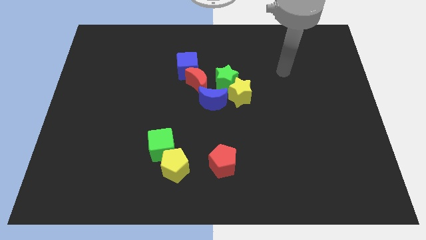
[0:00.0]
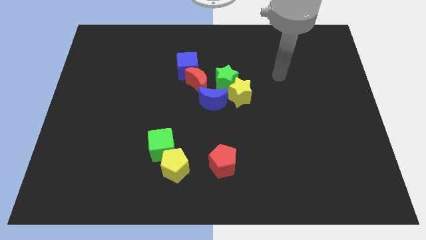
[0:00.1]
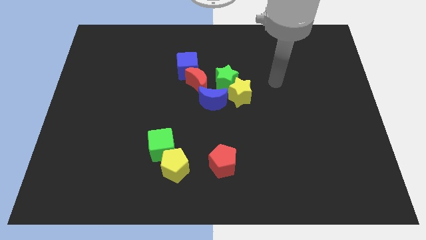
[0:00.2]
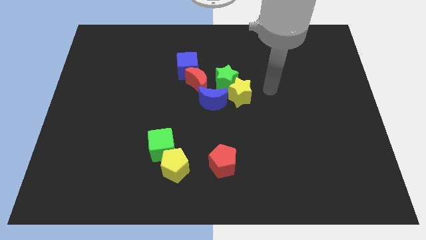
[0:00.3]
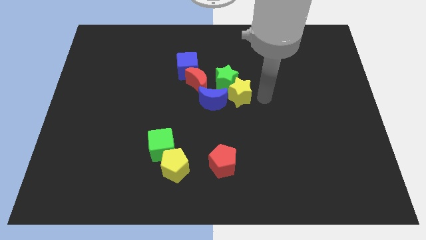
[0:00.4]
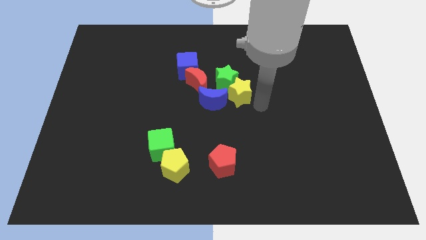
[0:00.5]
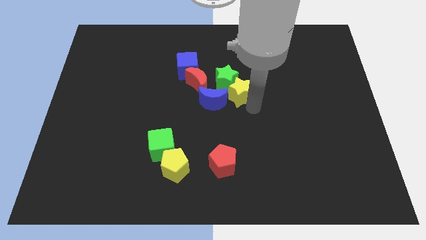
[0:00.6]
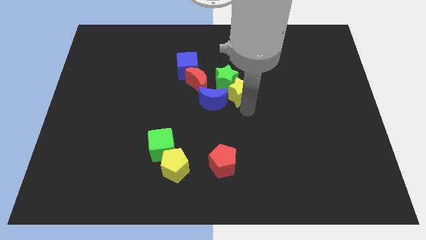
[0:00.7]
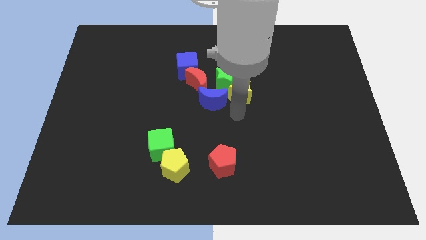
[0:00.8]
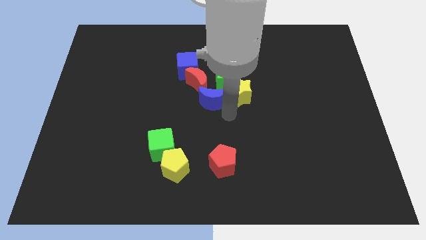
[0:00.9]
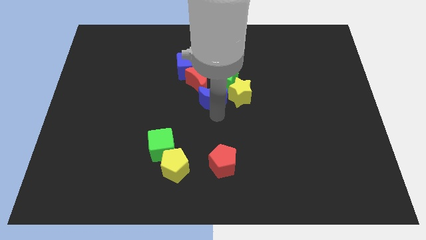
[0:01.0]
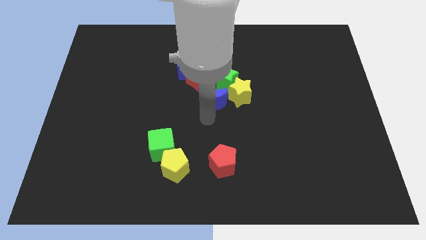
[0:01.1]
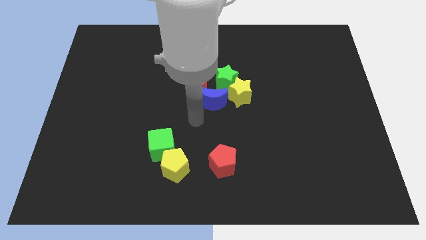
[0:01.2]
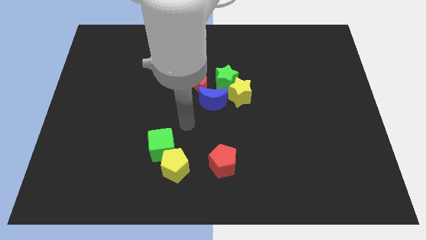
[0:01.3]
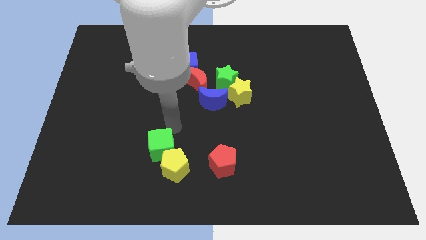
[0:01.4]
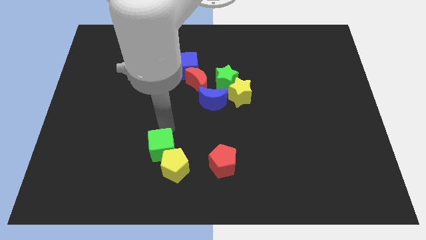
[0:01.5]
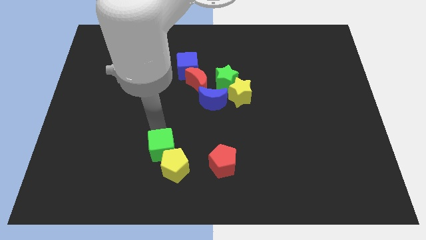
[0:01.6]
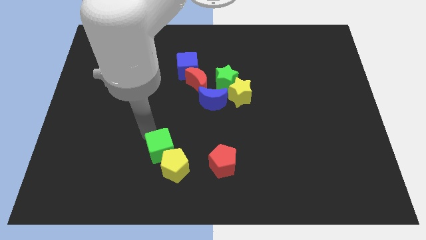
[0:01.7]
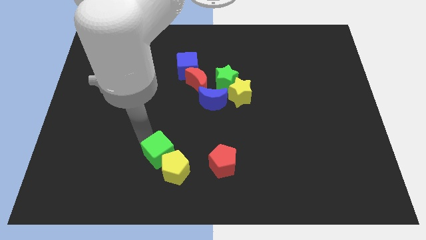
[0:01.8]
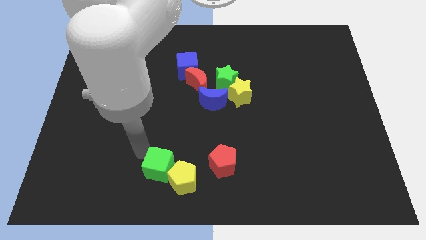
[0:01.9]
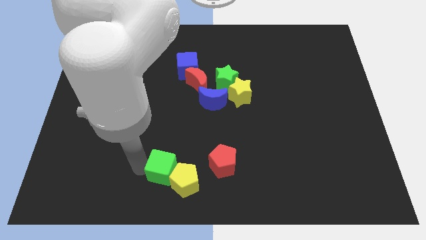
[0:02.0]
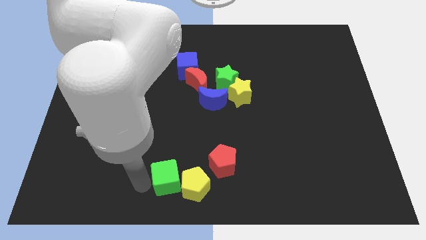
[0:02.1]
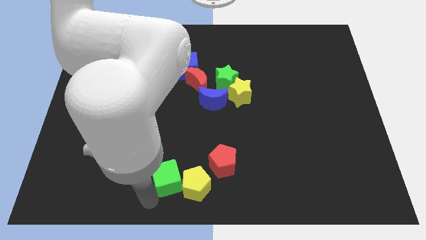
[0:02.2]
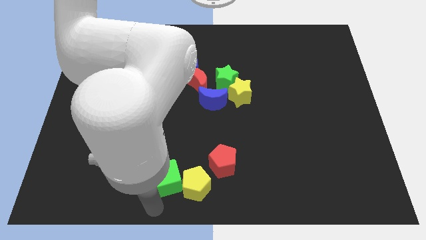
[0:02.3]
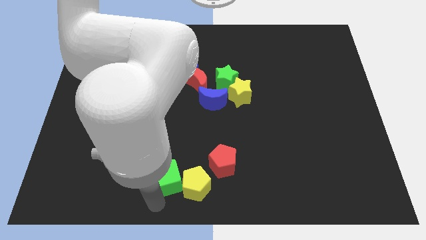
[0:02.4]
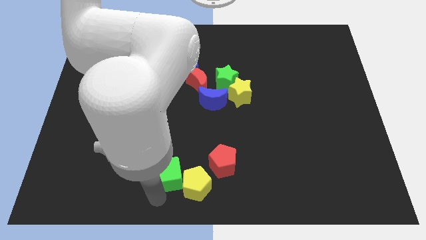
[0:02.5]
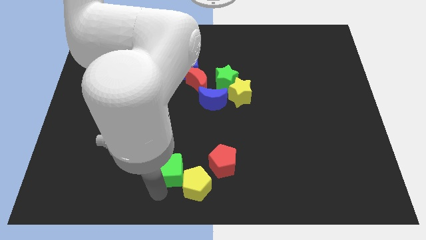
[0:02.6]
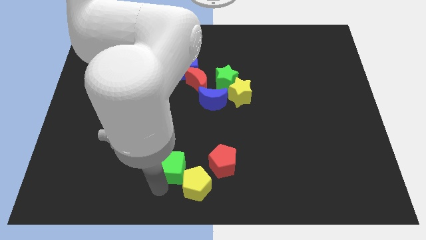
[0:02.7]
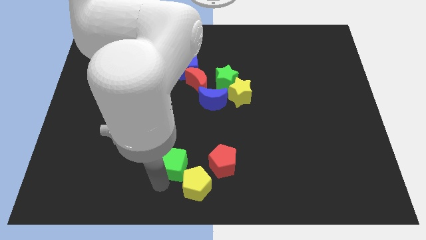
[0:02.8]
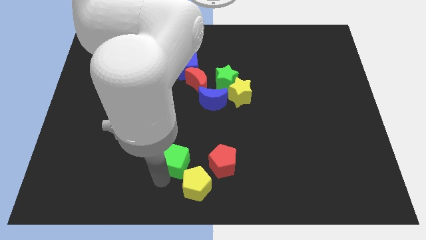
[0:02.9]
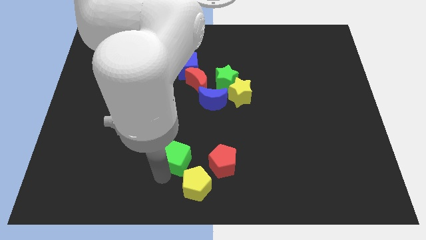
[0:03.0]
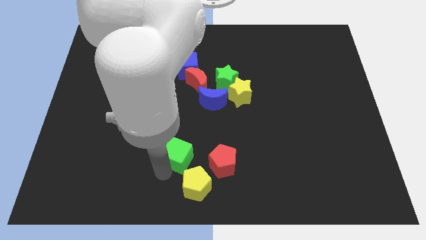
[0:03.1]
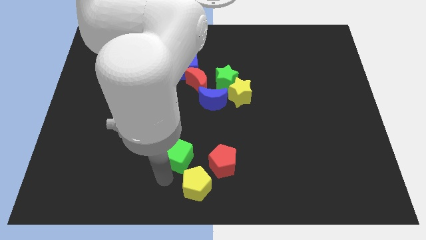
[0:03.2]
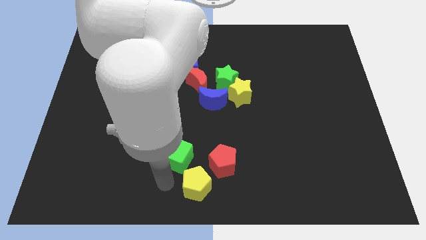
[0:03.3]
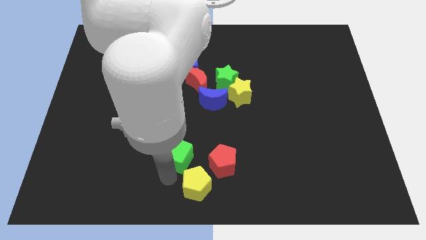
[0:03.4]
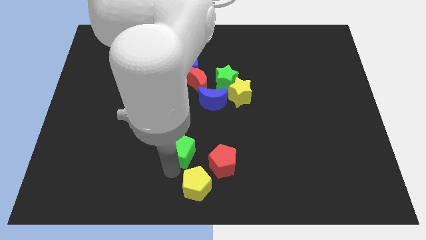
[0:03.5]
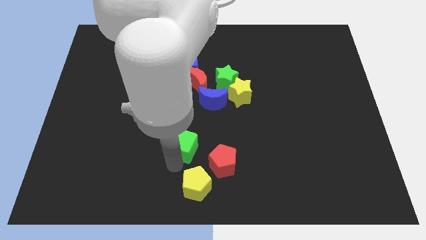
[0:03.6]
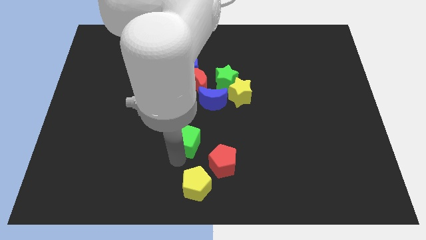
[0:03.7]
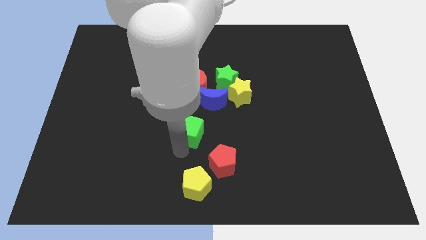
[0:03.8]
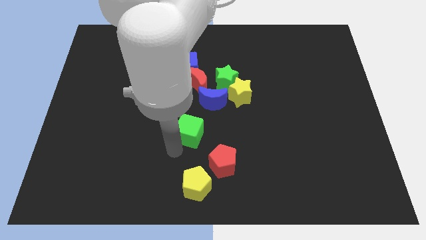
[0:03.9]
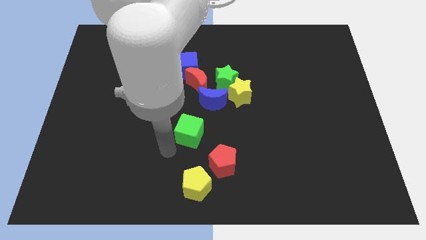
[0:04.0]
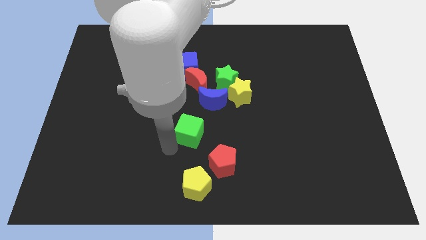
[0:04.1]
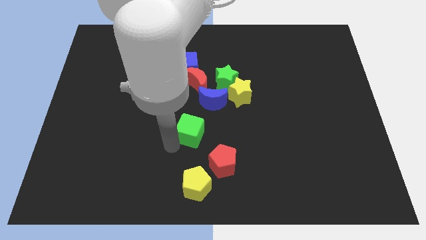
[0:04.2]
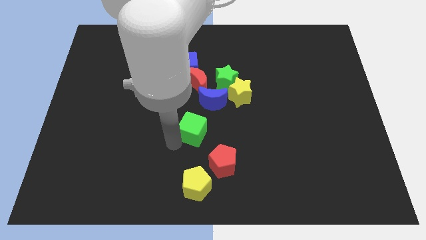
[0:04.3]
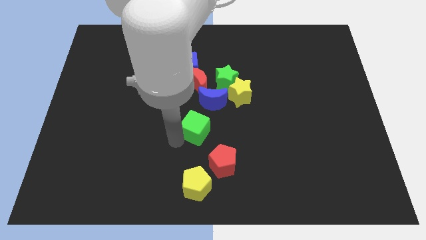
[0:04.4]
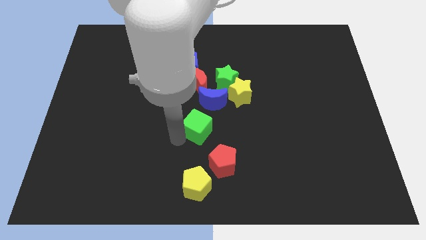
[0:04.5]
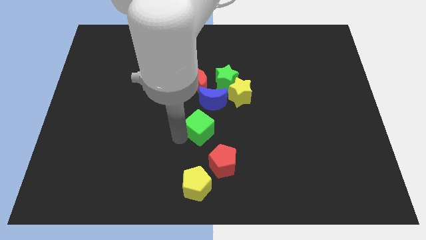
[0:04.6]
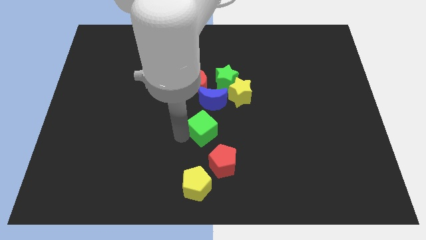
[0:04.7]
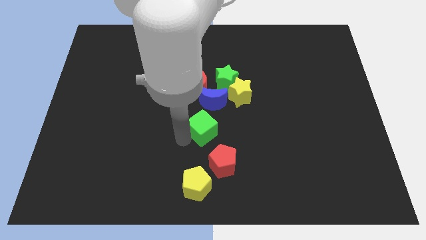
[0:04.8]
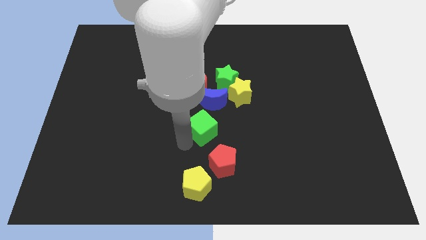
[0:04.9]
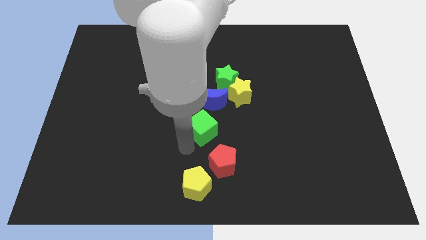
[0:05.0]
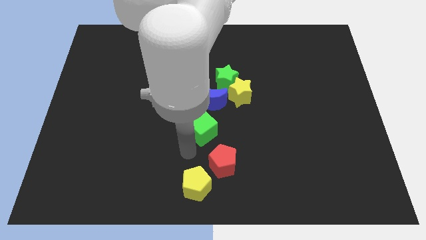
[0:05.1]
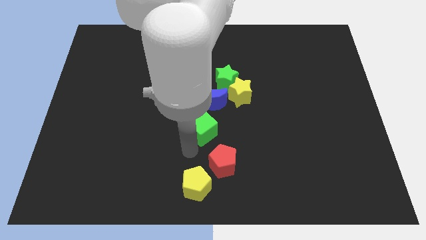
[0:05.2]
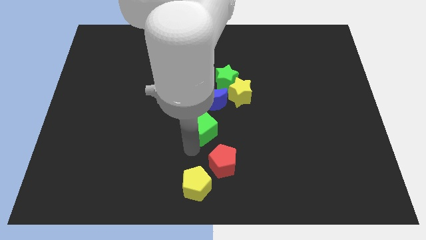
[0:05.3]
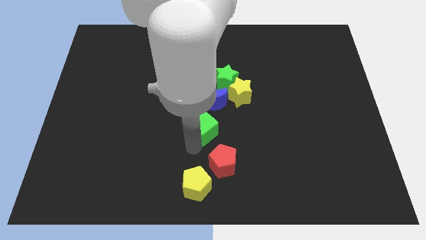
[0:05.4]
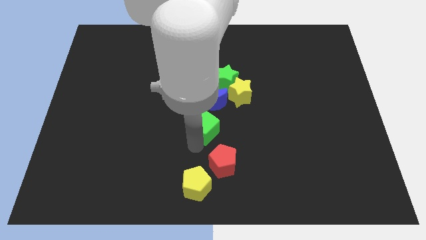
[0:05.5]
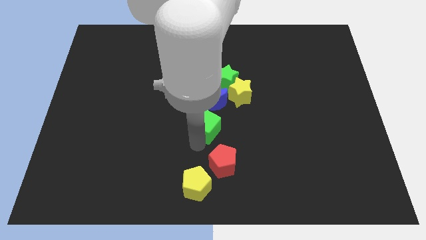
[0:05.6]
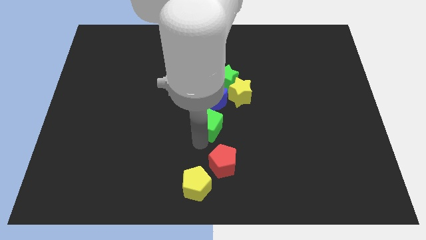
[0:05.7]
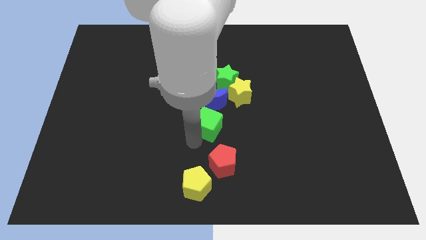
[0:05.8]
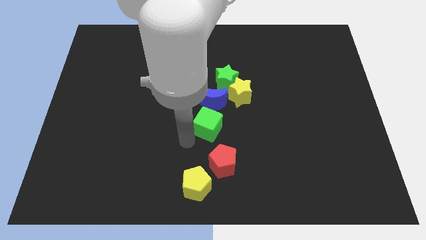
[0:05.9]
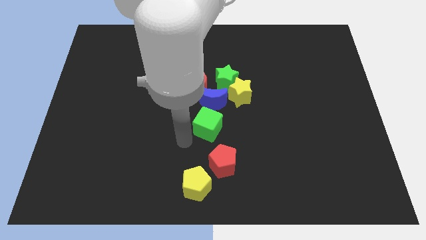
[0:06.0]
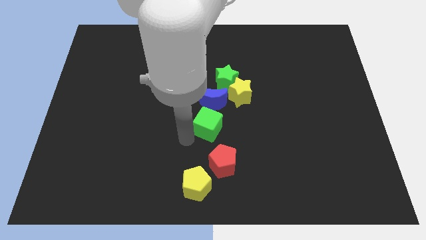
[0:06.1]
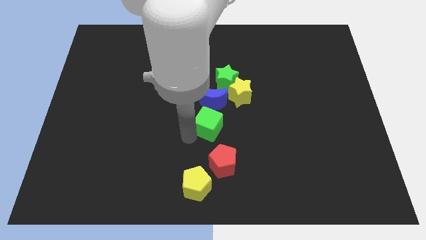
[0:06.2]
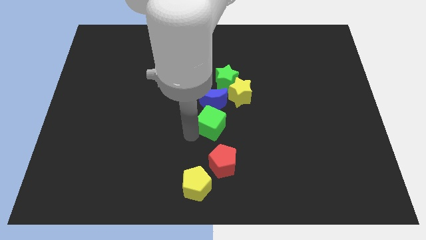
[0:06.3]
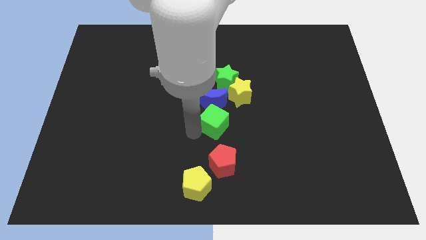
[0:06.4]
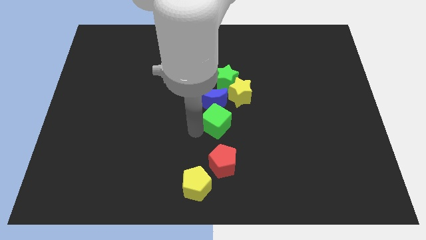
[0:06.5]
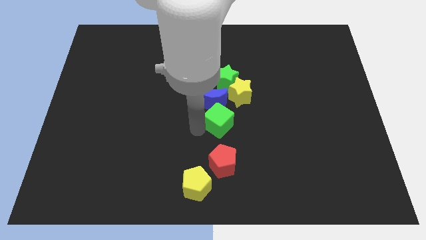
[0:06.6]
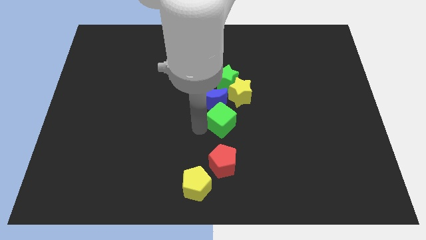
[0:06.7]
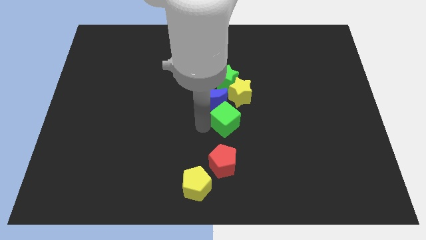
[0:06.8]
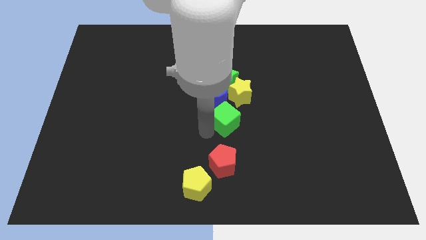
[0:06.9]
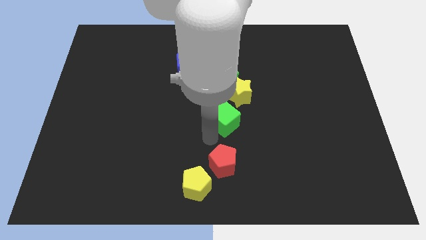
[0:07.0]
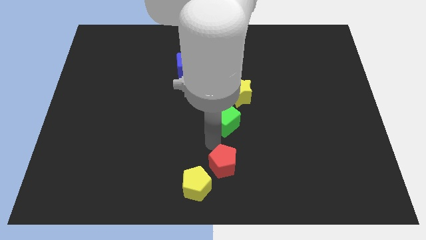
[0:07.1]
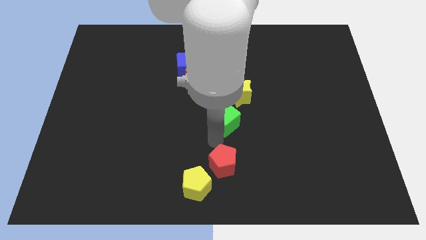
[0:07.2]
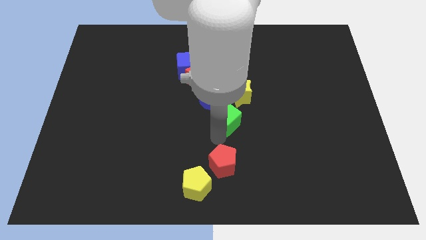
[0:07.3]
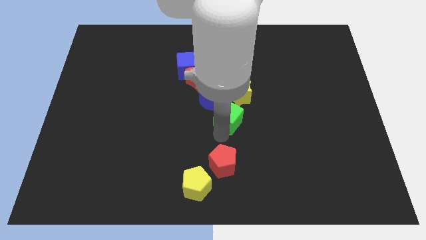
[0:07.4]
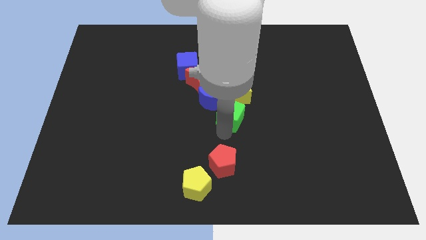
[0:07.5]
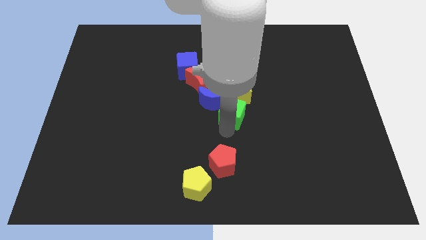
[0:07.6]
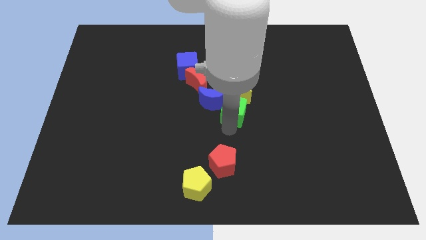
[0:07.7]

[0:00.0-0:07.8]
put the green cube to the yellow star
